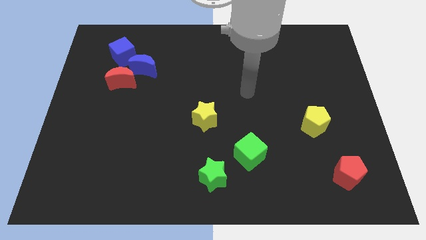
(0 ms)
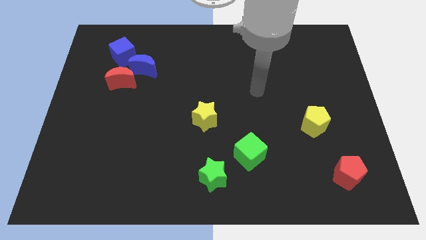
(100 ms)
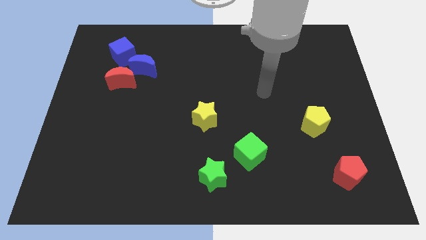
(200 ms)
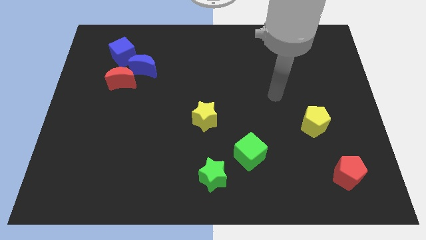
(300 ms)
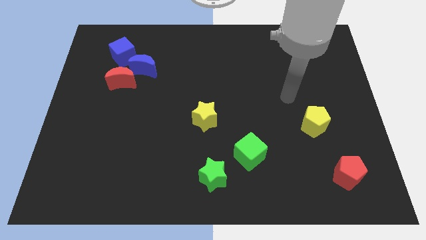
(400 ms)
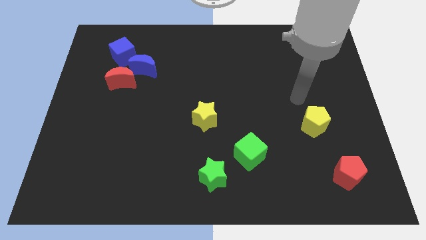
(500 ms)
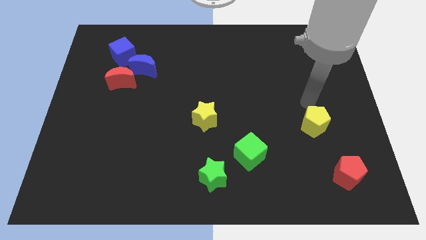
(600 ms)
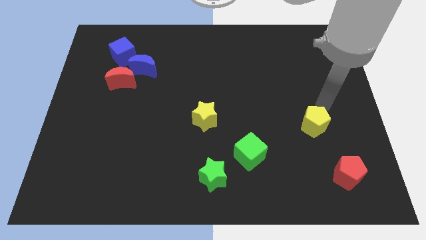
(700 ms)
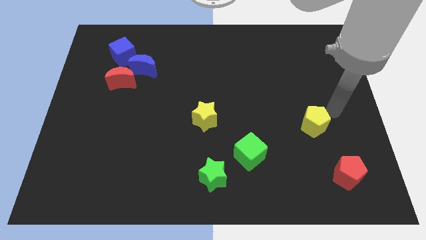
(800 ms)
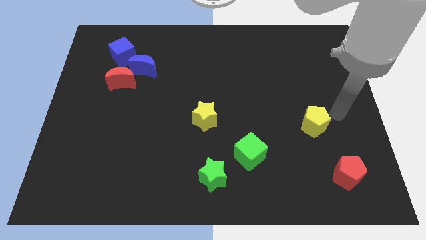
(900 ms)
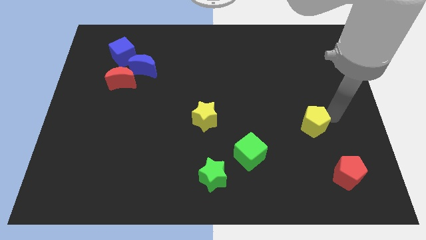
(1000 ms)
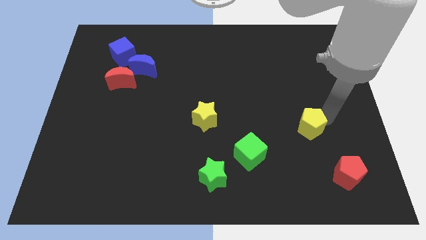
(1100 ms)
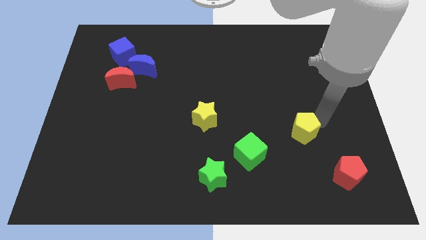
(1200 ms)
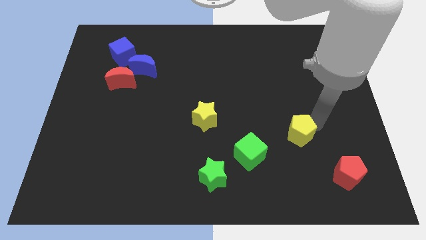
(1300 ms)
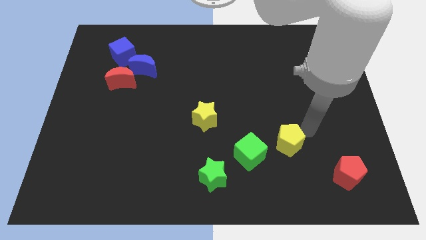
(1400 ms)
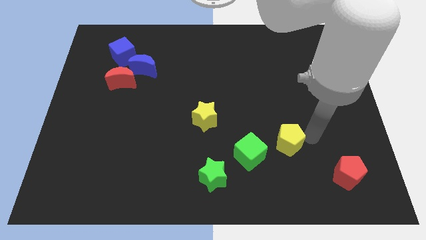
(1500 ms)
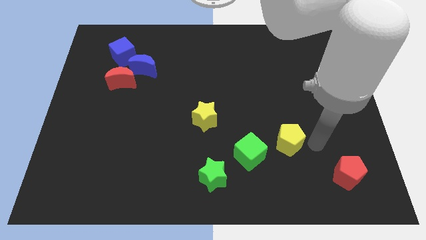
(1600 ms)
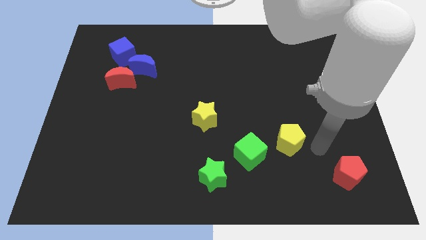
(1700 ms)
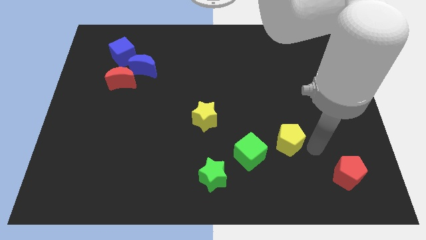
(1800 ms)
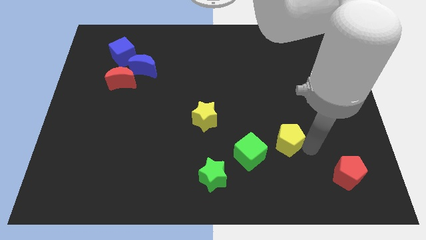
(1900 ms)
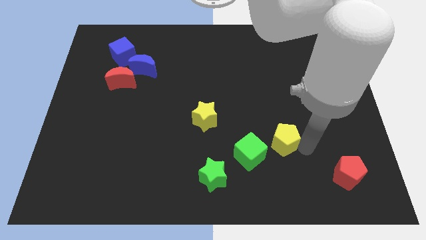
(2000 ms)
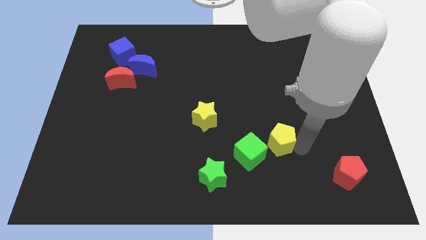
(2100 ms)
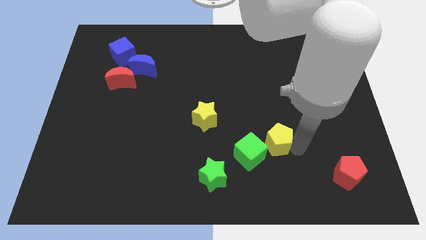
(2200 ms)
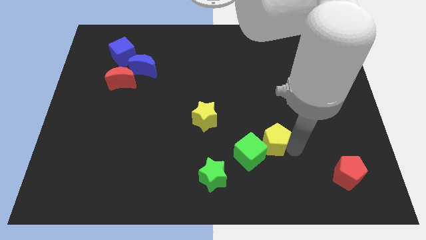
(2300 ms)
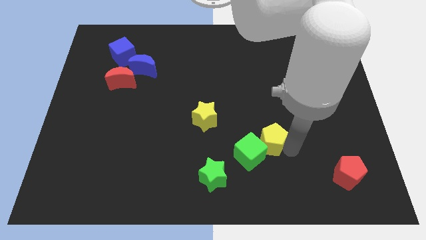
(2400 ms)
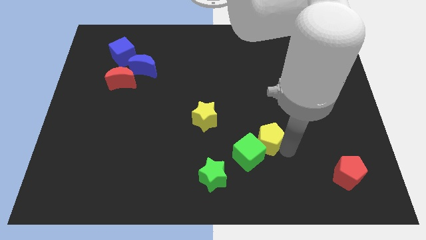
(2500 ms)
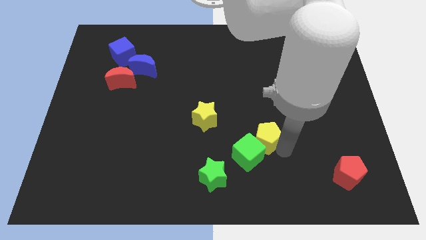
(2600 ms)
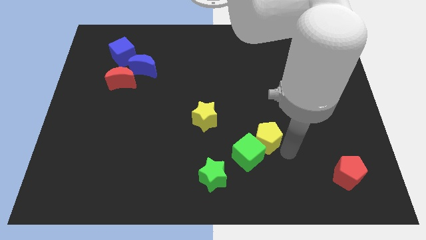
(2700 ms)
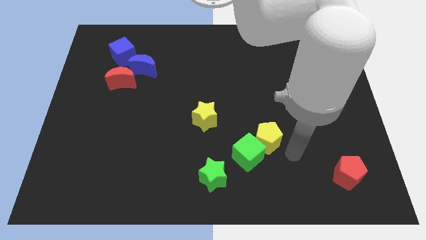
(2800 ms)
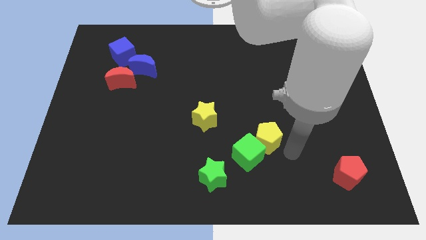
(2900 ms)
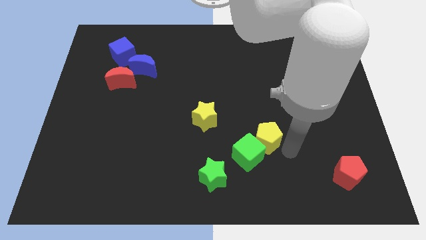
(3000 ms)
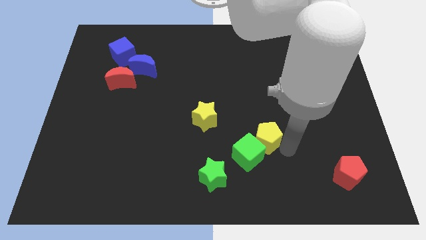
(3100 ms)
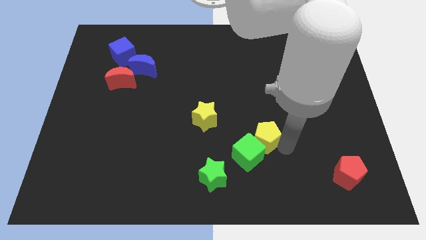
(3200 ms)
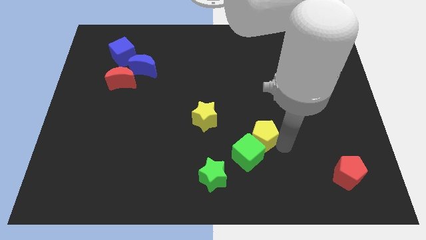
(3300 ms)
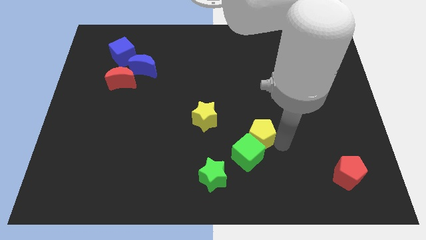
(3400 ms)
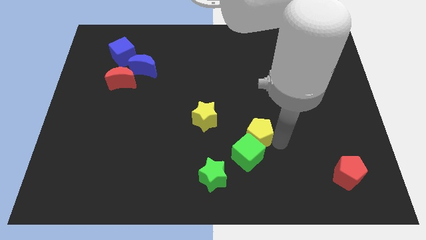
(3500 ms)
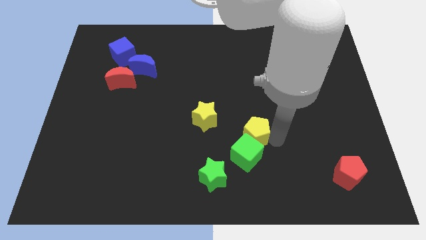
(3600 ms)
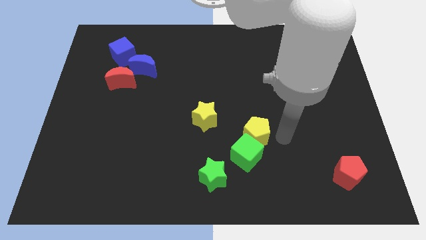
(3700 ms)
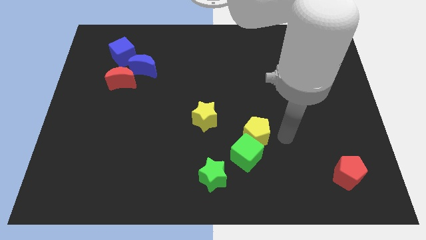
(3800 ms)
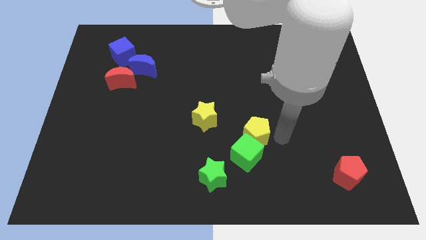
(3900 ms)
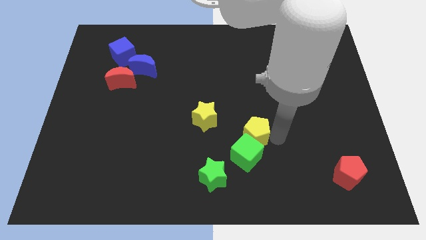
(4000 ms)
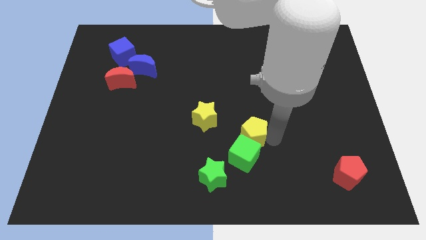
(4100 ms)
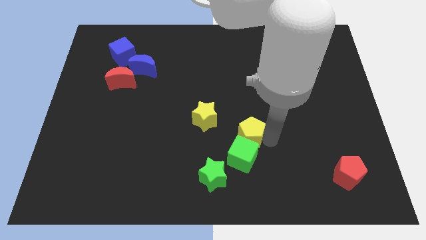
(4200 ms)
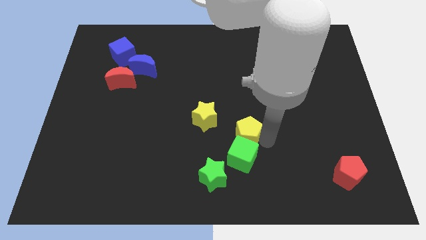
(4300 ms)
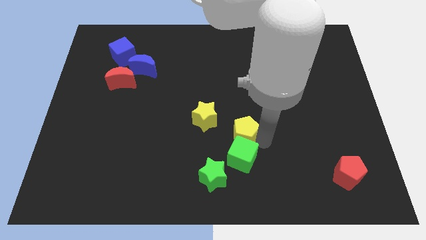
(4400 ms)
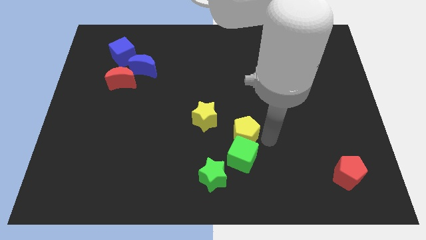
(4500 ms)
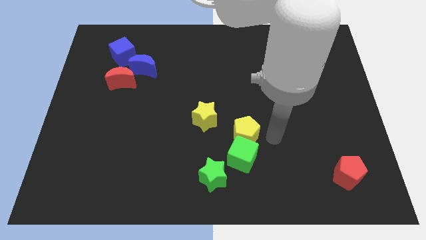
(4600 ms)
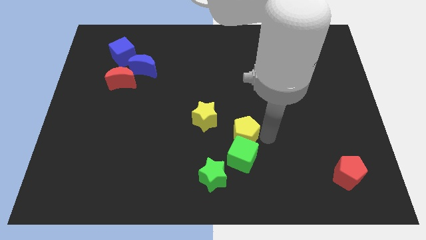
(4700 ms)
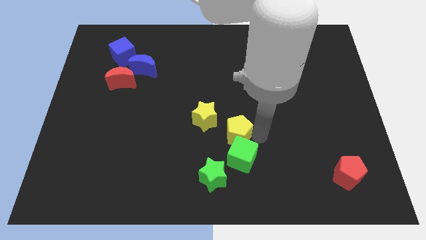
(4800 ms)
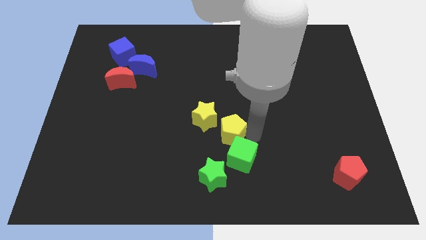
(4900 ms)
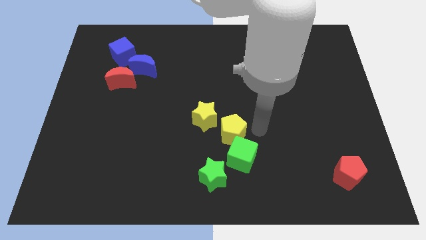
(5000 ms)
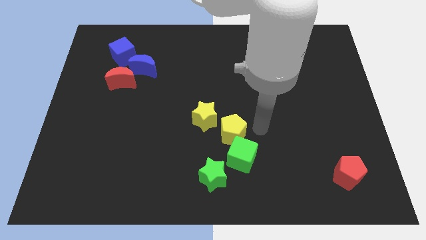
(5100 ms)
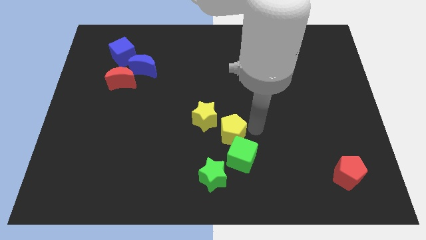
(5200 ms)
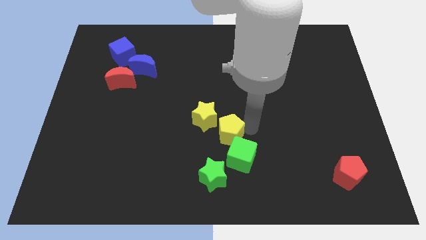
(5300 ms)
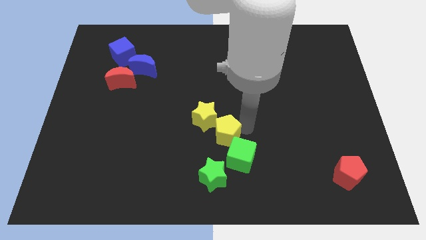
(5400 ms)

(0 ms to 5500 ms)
slide the yellow pentagon to the left

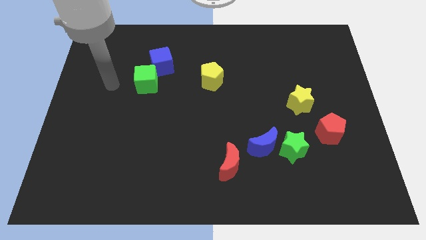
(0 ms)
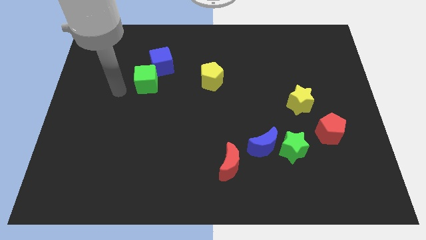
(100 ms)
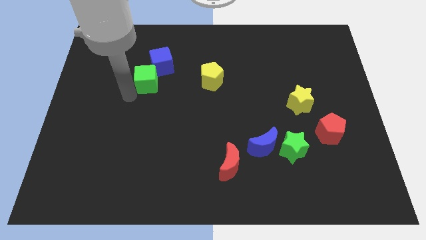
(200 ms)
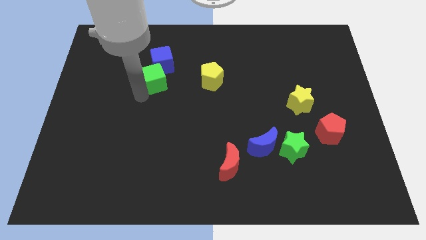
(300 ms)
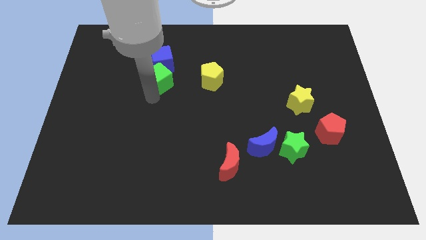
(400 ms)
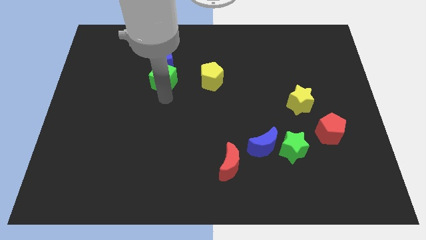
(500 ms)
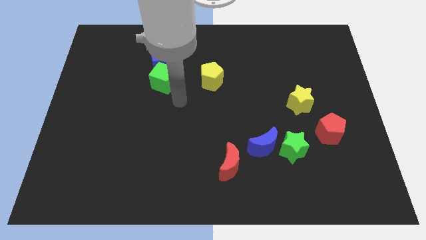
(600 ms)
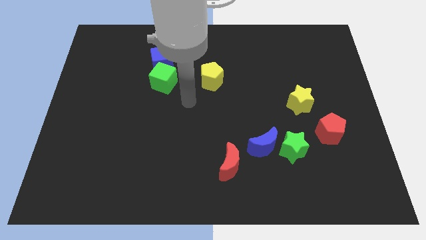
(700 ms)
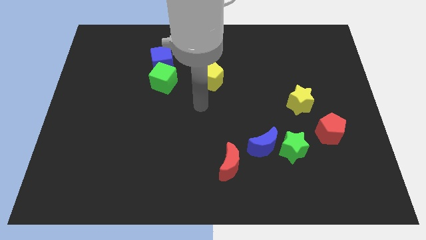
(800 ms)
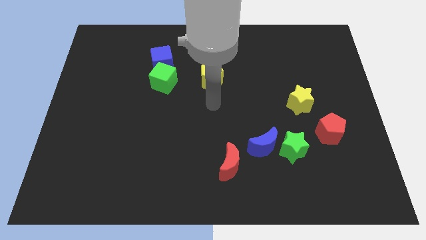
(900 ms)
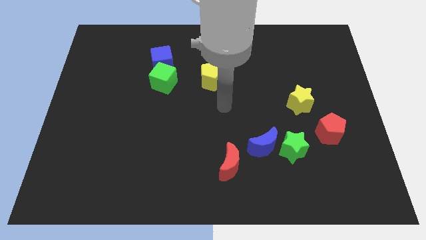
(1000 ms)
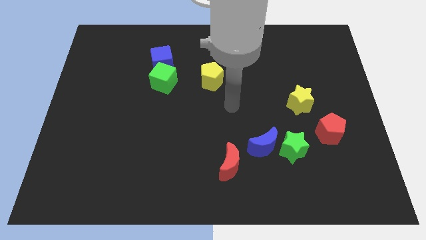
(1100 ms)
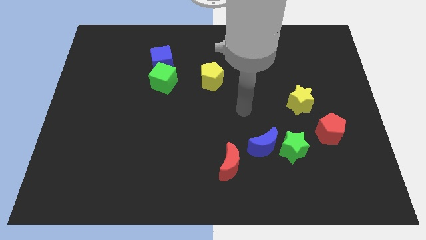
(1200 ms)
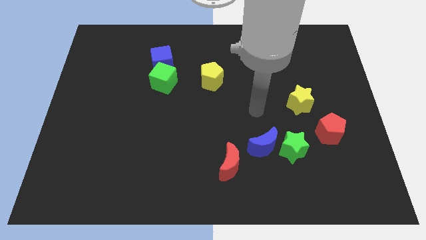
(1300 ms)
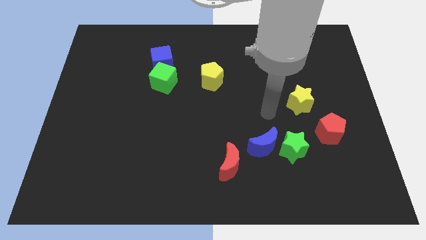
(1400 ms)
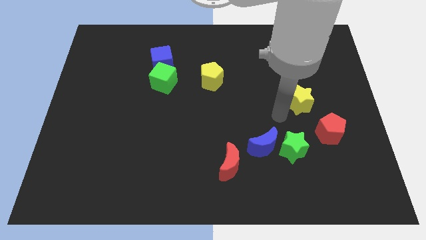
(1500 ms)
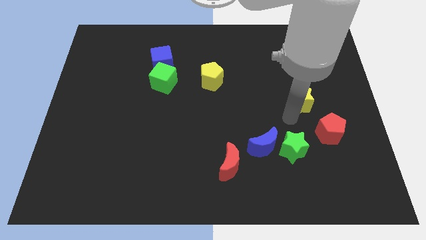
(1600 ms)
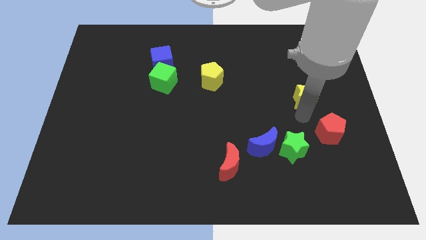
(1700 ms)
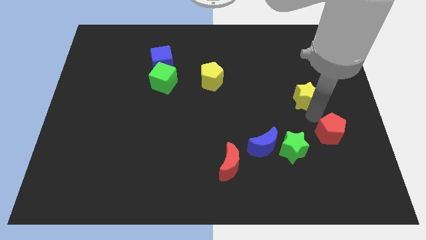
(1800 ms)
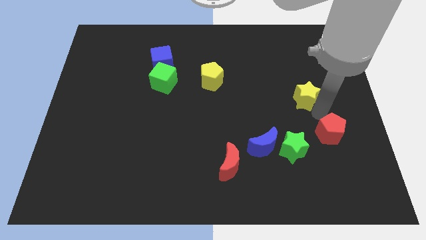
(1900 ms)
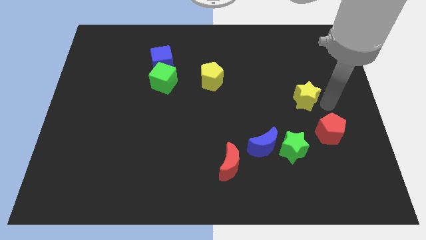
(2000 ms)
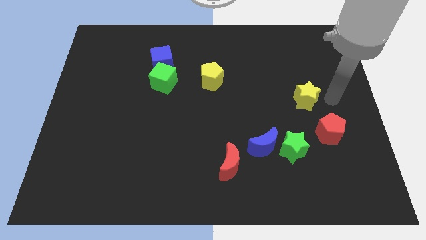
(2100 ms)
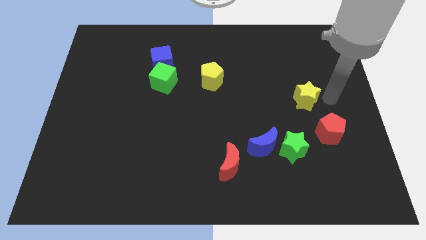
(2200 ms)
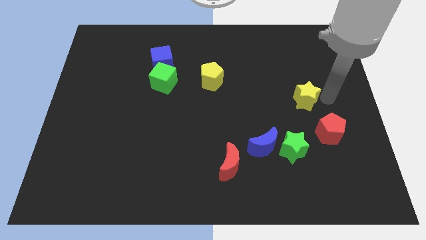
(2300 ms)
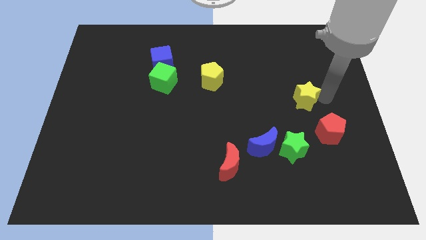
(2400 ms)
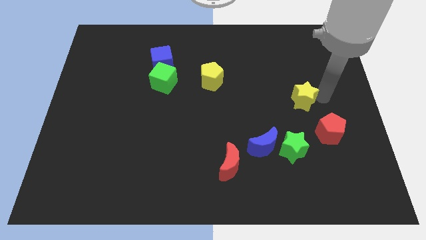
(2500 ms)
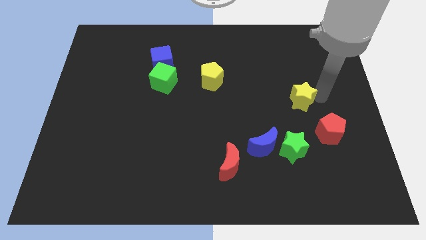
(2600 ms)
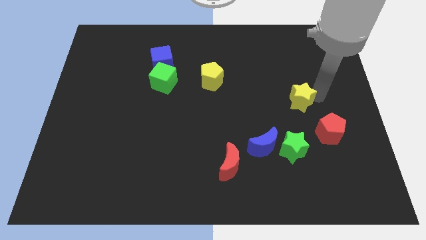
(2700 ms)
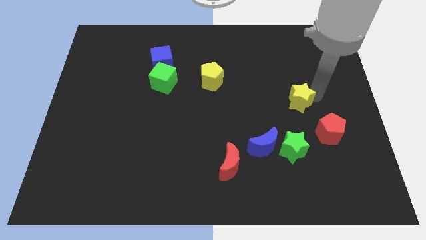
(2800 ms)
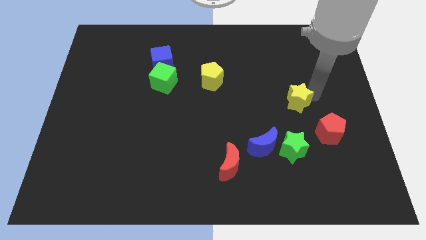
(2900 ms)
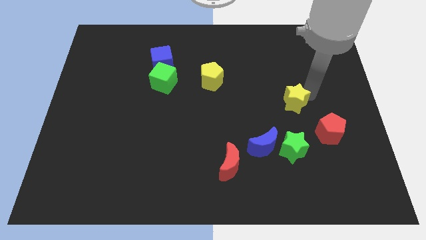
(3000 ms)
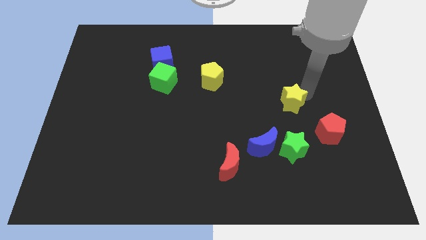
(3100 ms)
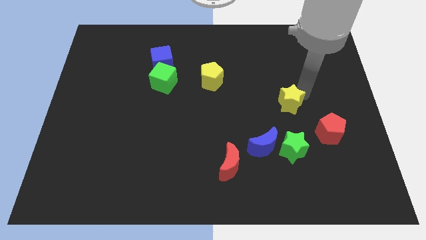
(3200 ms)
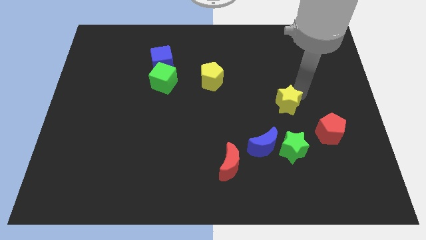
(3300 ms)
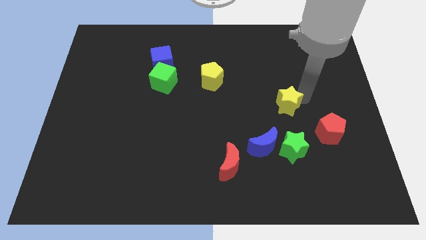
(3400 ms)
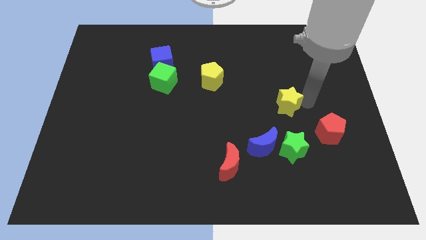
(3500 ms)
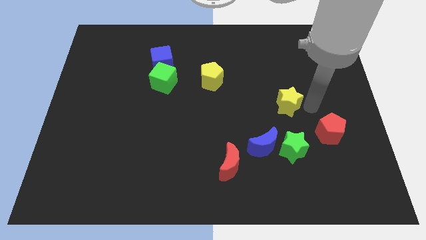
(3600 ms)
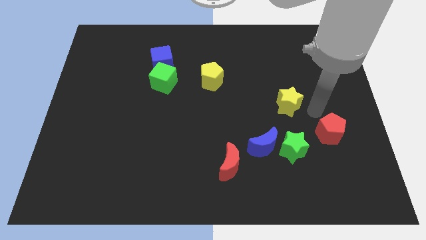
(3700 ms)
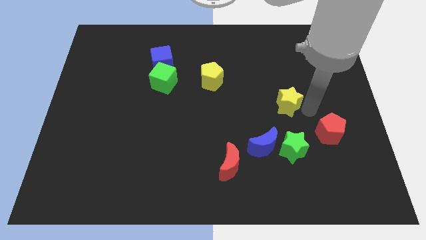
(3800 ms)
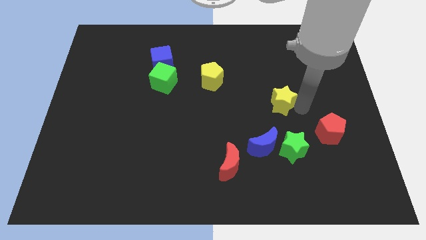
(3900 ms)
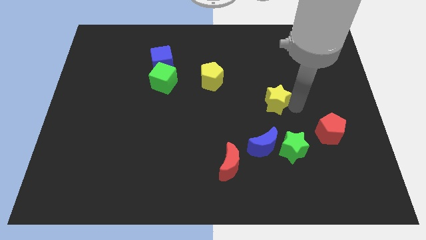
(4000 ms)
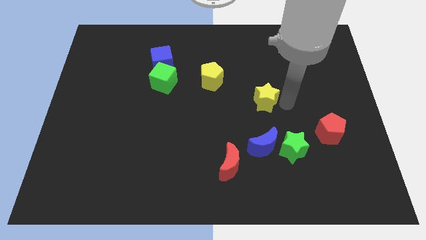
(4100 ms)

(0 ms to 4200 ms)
slightly slide the yellow star left
